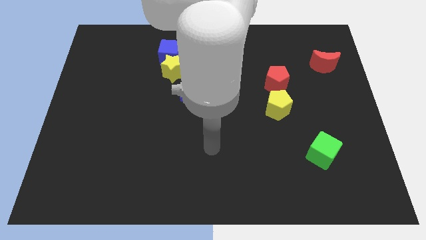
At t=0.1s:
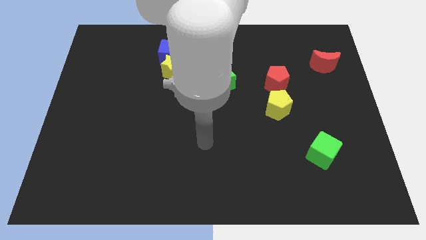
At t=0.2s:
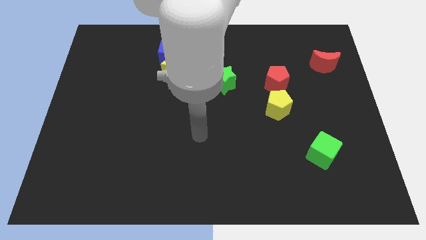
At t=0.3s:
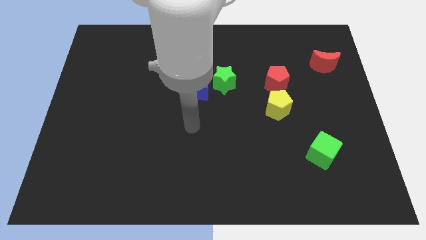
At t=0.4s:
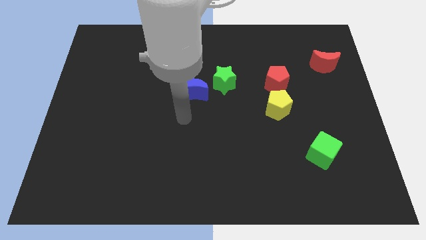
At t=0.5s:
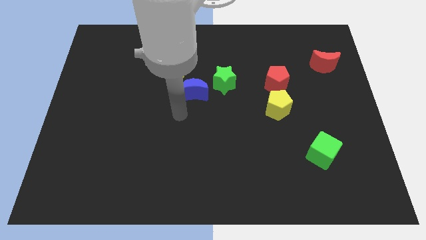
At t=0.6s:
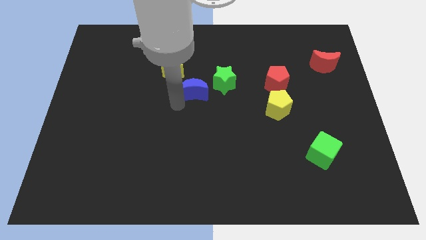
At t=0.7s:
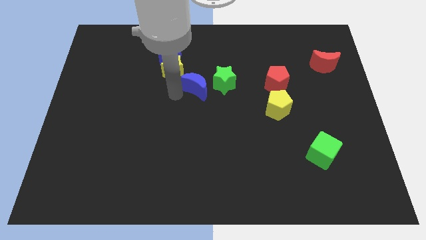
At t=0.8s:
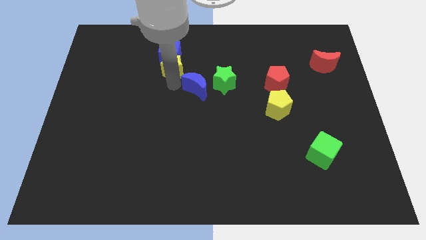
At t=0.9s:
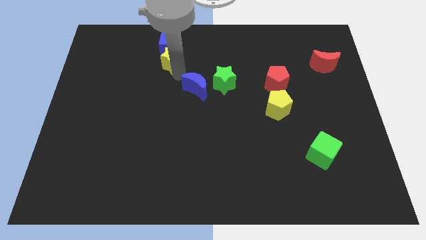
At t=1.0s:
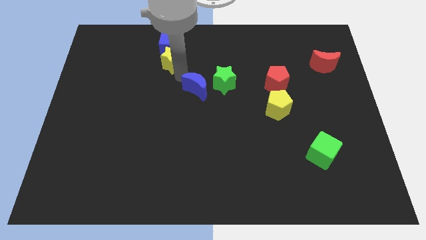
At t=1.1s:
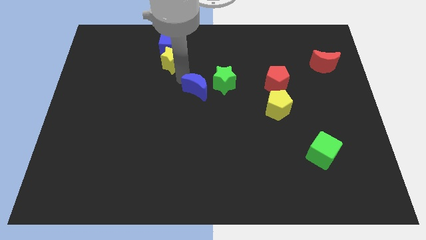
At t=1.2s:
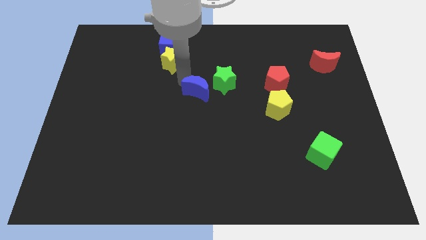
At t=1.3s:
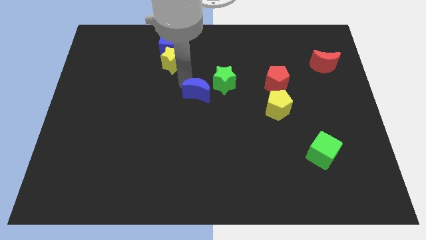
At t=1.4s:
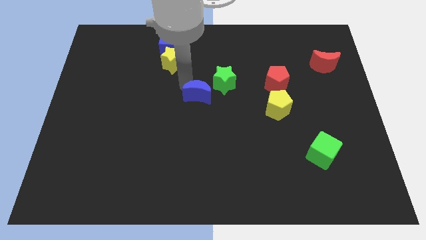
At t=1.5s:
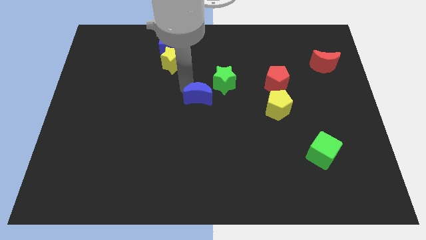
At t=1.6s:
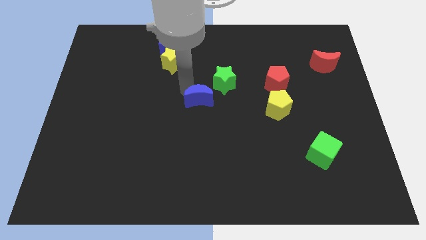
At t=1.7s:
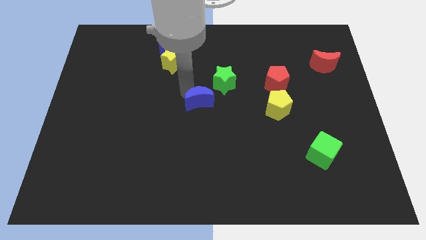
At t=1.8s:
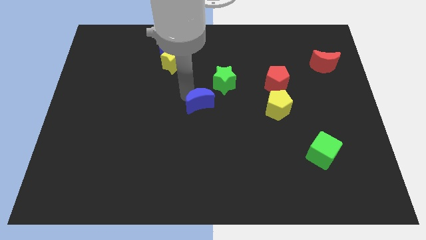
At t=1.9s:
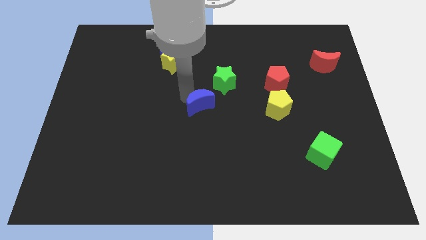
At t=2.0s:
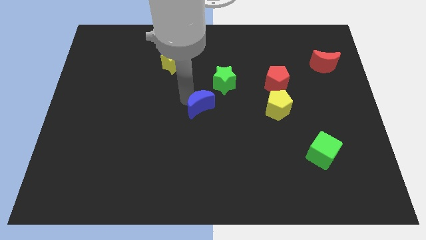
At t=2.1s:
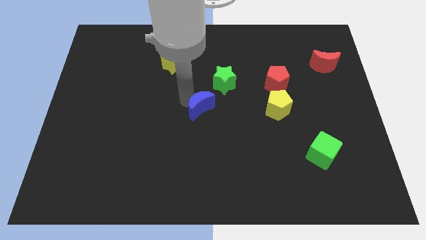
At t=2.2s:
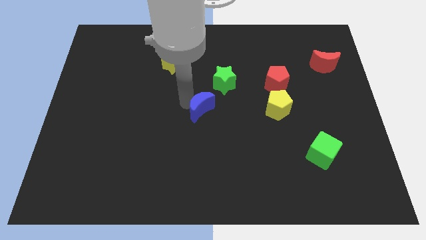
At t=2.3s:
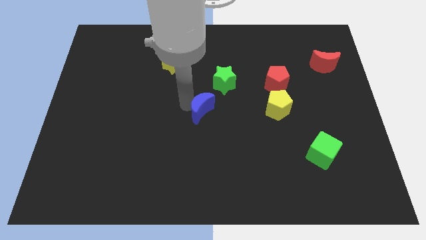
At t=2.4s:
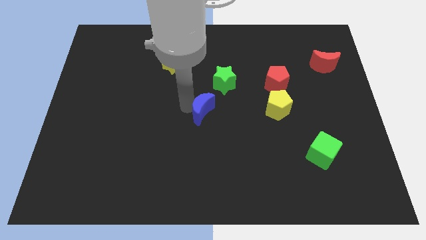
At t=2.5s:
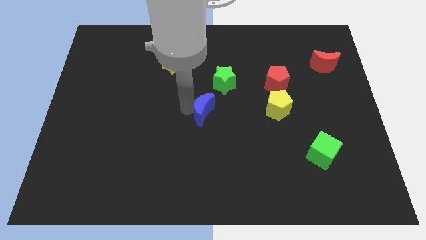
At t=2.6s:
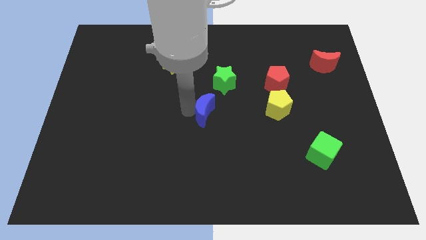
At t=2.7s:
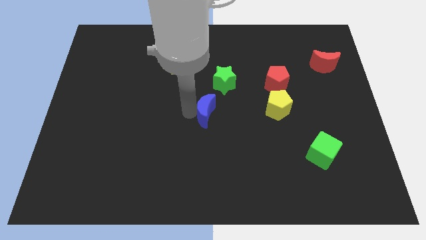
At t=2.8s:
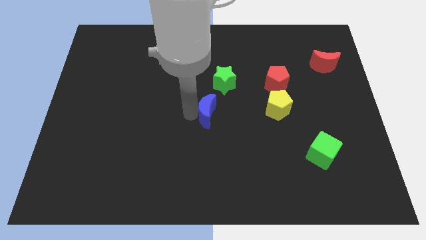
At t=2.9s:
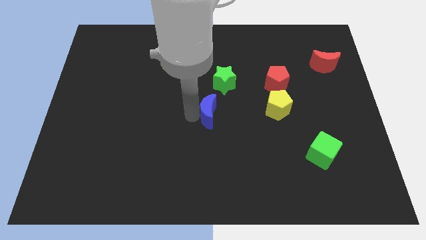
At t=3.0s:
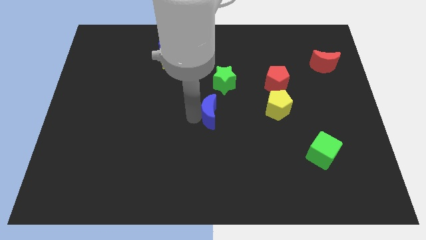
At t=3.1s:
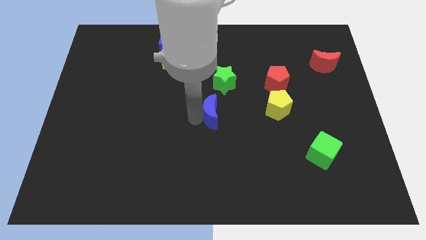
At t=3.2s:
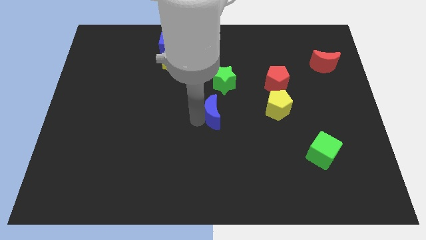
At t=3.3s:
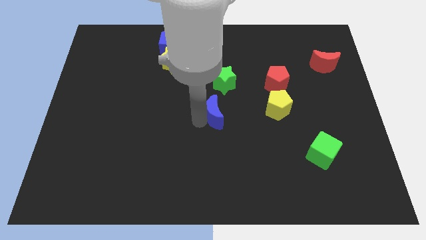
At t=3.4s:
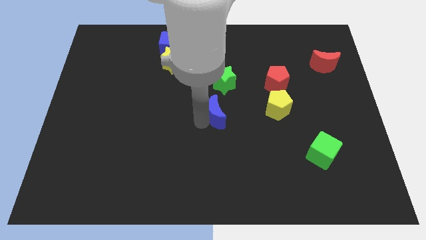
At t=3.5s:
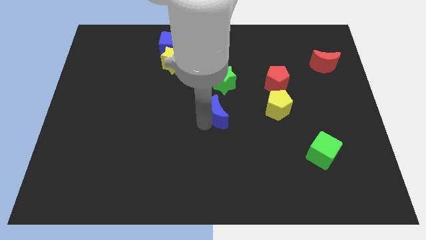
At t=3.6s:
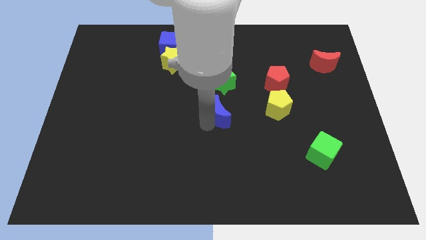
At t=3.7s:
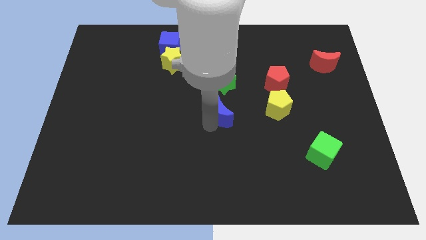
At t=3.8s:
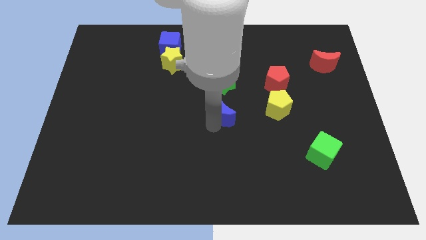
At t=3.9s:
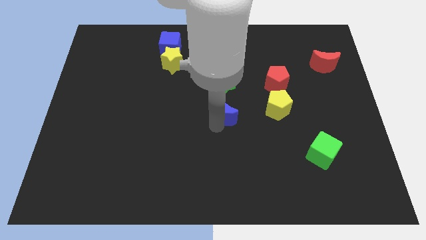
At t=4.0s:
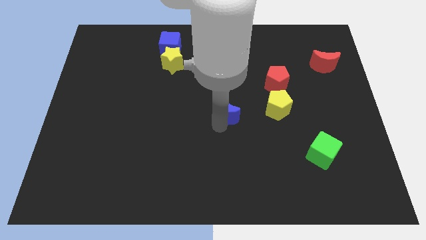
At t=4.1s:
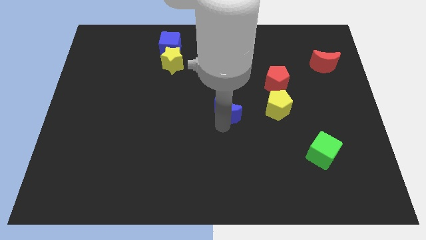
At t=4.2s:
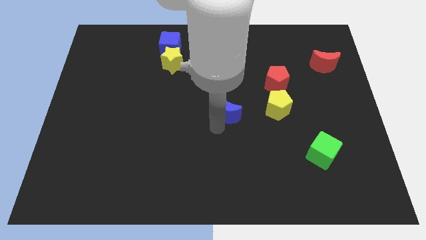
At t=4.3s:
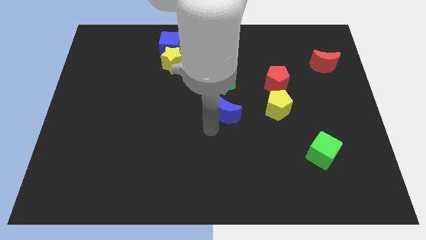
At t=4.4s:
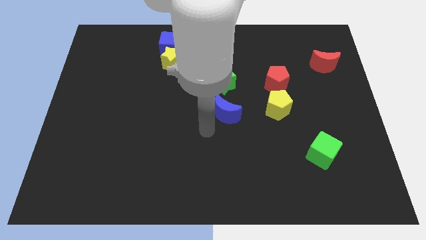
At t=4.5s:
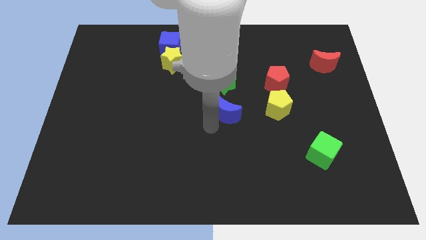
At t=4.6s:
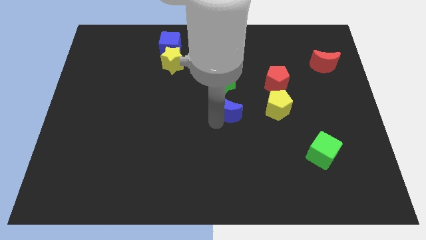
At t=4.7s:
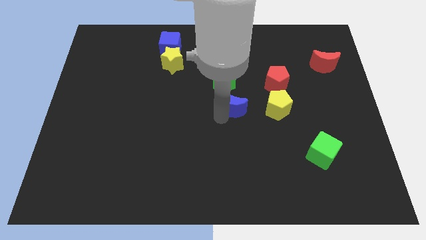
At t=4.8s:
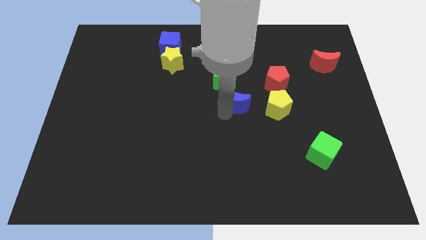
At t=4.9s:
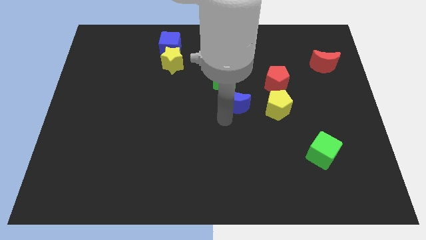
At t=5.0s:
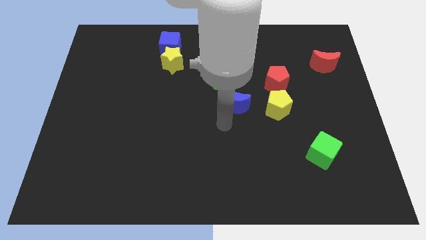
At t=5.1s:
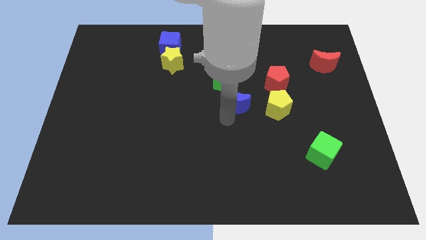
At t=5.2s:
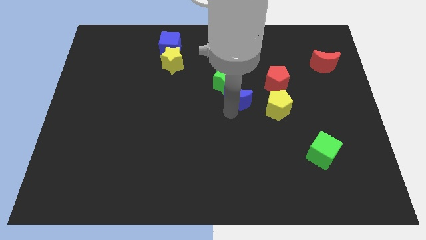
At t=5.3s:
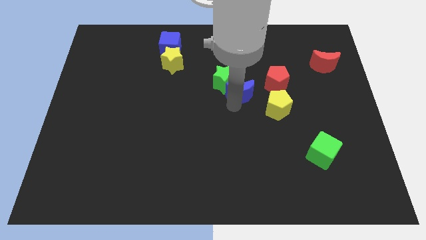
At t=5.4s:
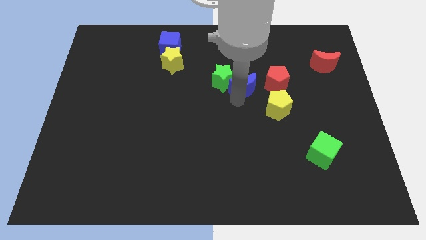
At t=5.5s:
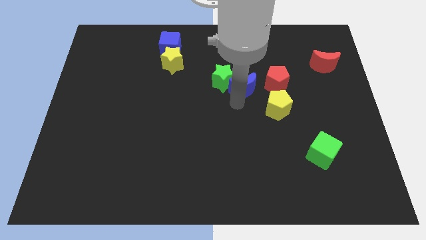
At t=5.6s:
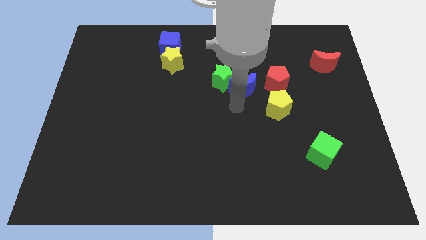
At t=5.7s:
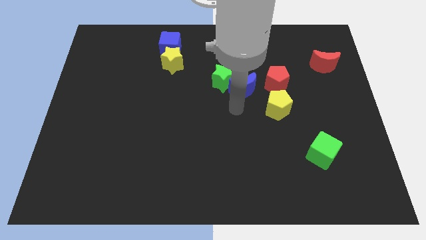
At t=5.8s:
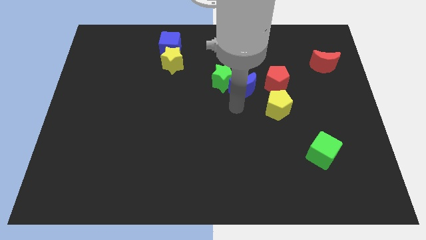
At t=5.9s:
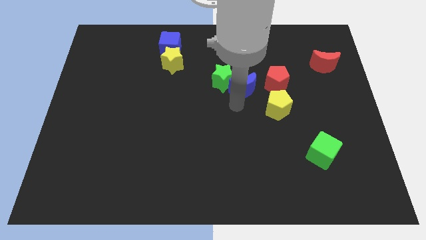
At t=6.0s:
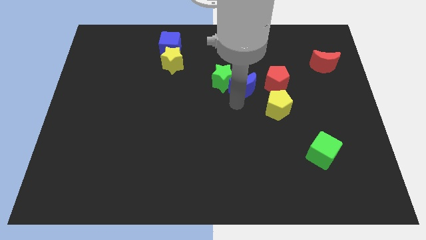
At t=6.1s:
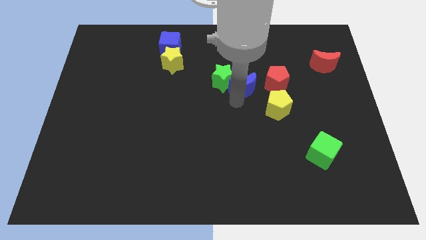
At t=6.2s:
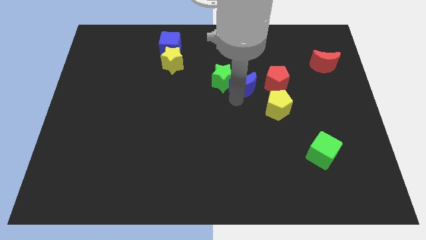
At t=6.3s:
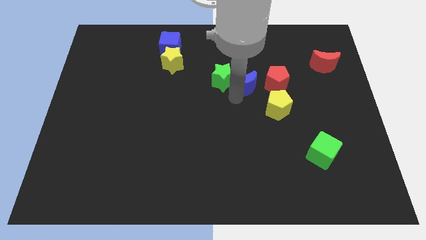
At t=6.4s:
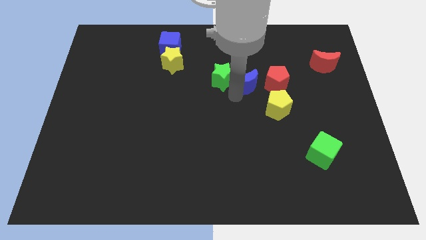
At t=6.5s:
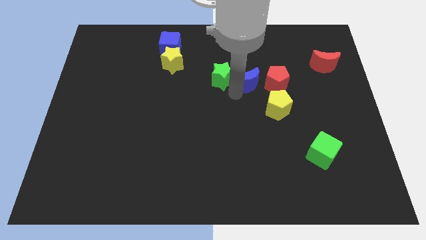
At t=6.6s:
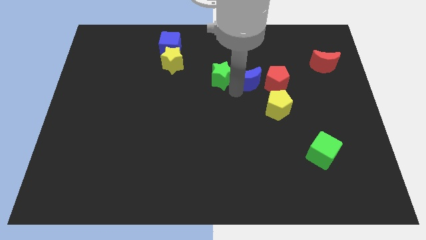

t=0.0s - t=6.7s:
push the blue moon diagonally up and to the left of the red pentagon

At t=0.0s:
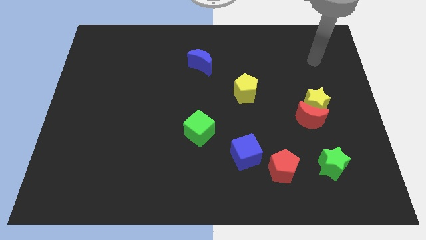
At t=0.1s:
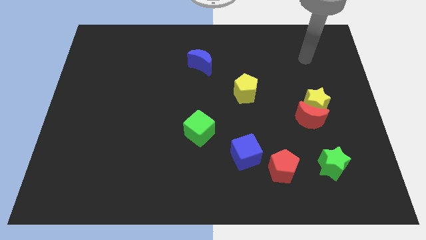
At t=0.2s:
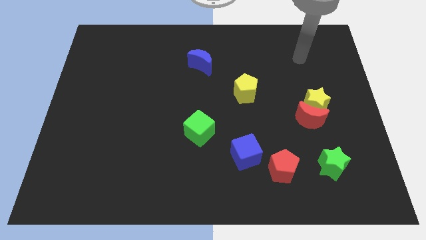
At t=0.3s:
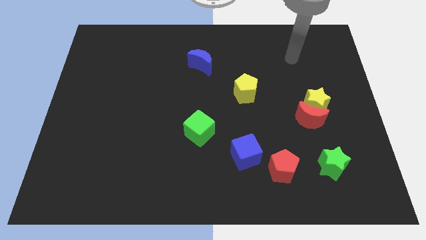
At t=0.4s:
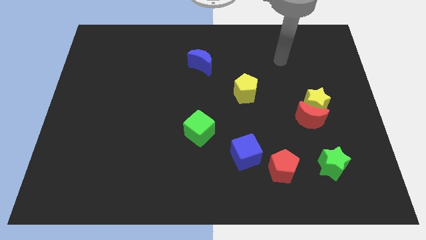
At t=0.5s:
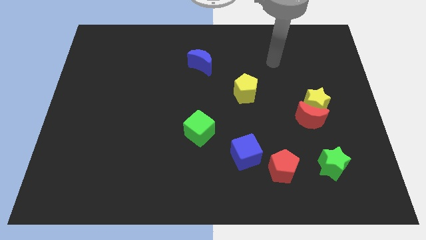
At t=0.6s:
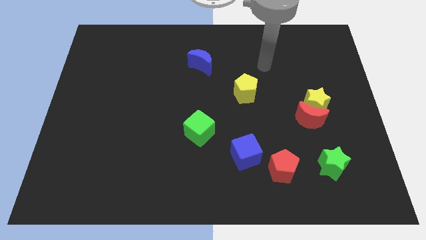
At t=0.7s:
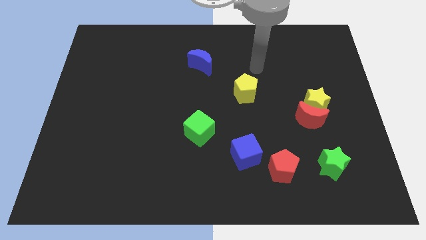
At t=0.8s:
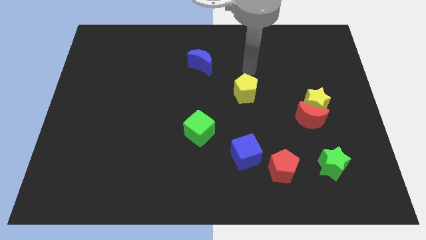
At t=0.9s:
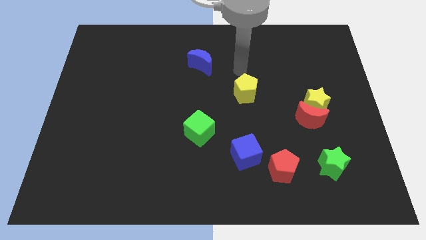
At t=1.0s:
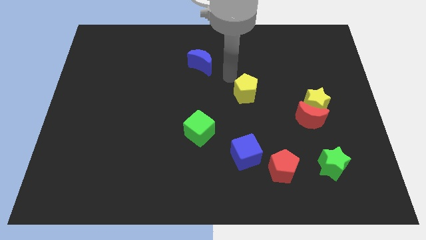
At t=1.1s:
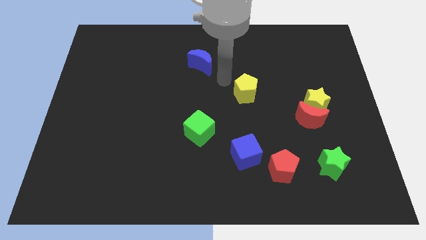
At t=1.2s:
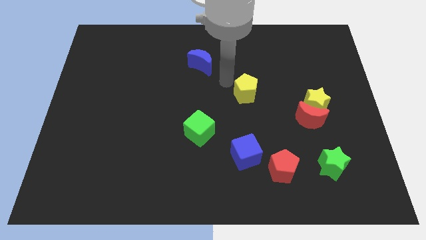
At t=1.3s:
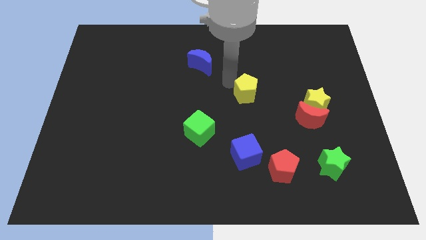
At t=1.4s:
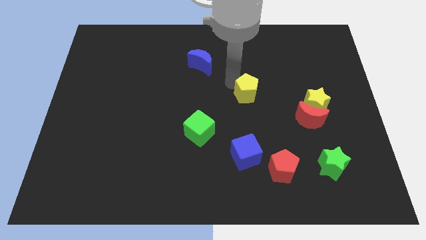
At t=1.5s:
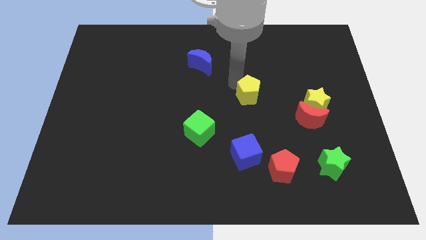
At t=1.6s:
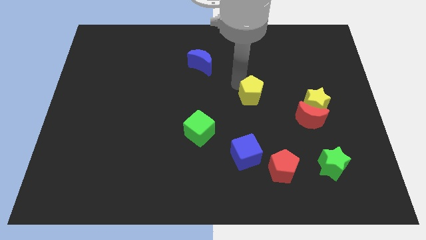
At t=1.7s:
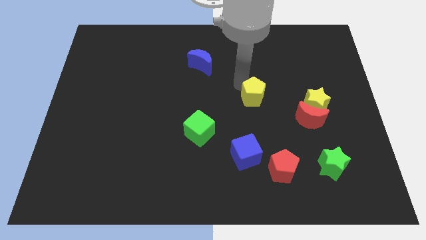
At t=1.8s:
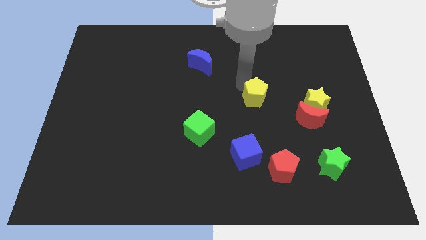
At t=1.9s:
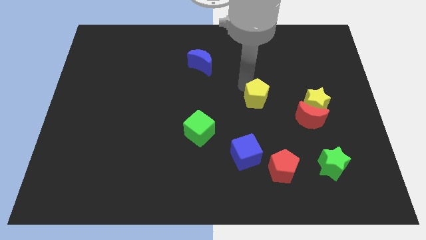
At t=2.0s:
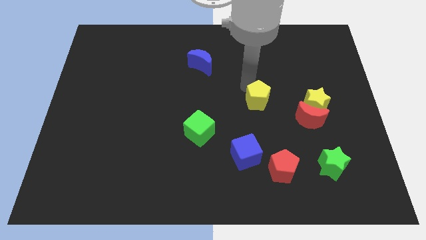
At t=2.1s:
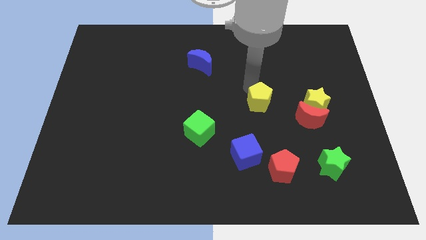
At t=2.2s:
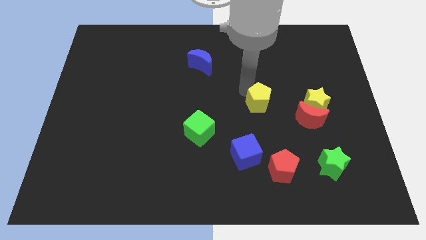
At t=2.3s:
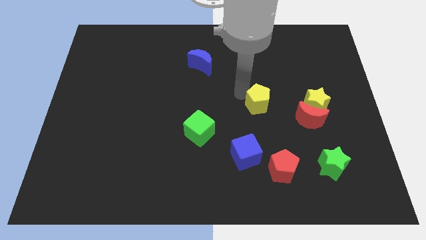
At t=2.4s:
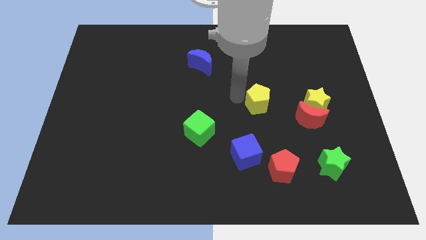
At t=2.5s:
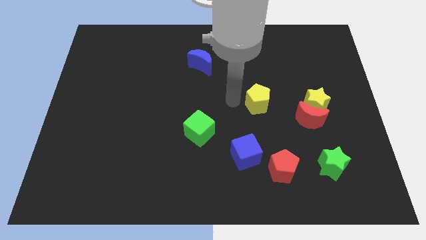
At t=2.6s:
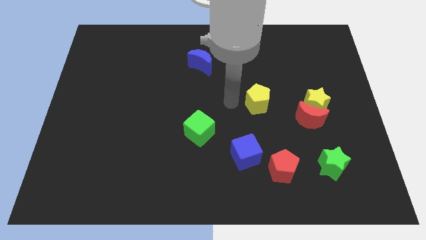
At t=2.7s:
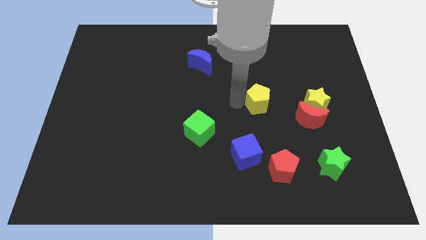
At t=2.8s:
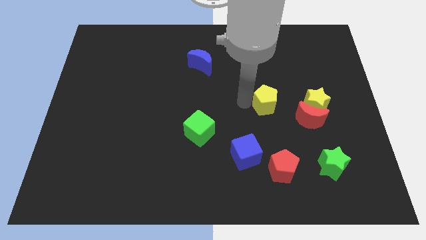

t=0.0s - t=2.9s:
put the yellow pentagon to the top left of the red moon
